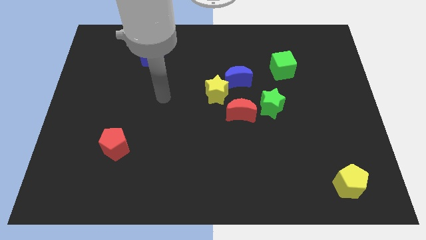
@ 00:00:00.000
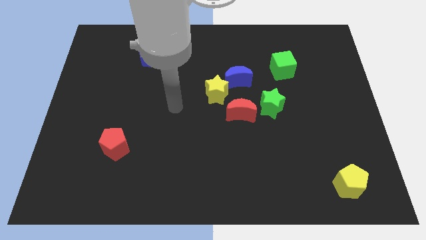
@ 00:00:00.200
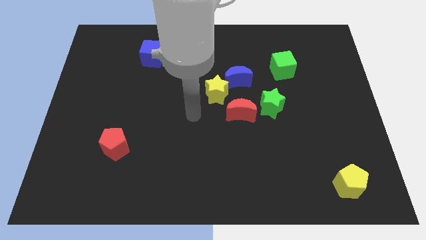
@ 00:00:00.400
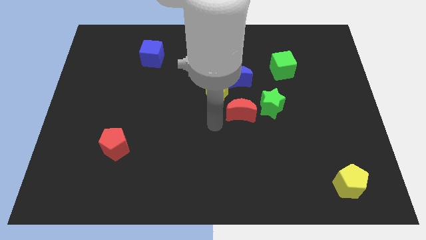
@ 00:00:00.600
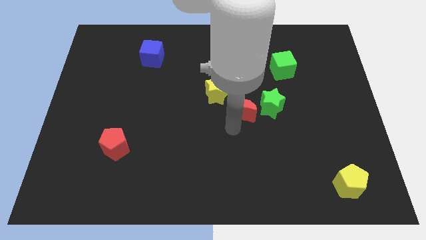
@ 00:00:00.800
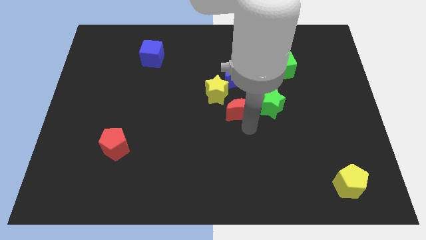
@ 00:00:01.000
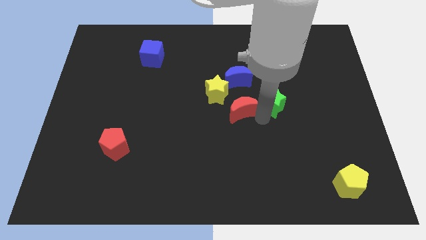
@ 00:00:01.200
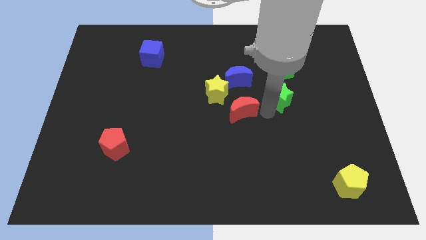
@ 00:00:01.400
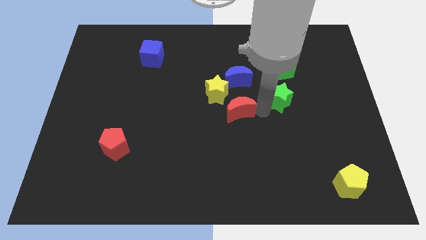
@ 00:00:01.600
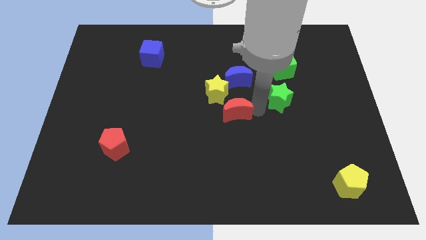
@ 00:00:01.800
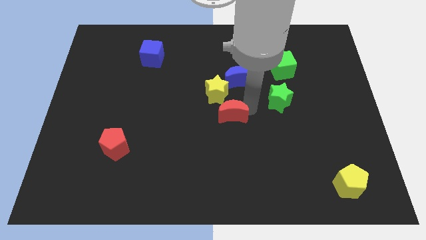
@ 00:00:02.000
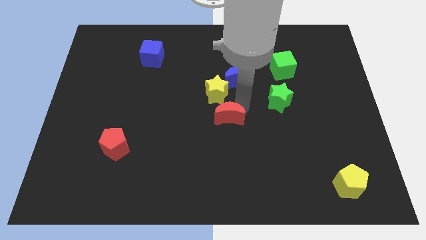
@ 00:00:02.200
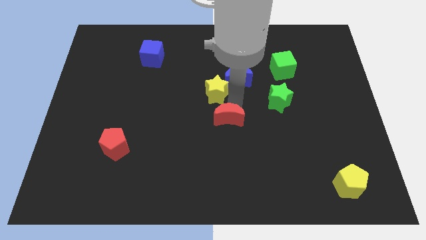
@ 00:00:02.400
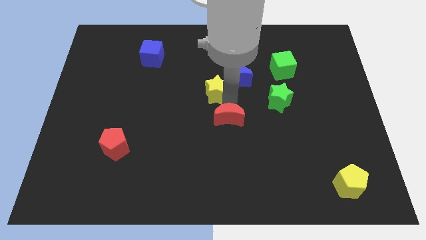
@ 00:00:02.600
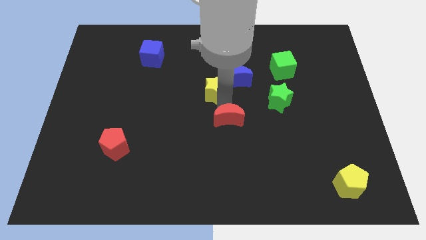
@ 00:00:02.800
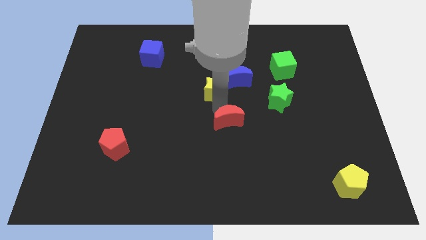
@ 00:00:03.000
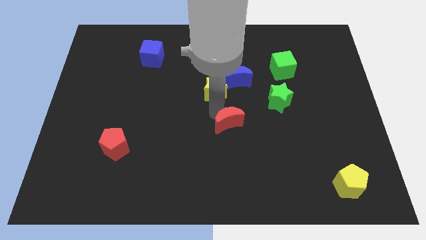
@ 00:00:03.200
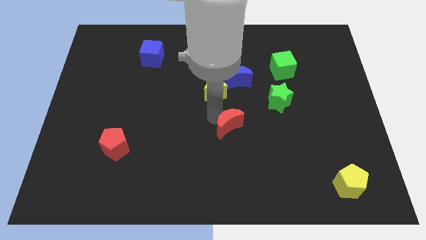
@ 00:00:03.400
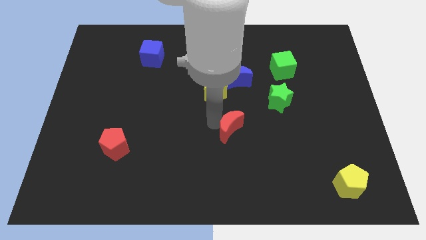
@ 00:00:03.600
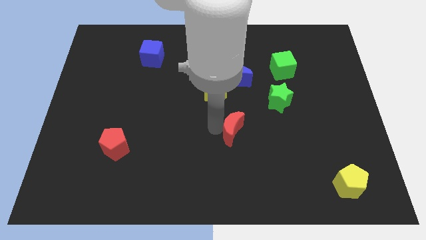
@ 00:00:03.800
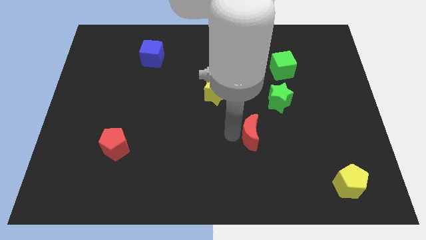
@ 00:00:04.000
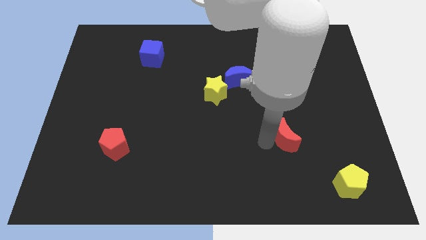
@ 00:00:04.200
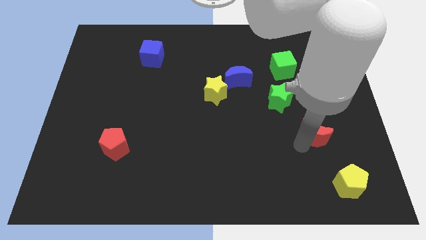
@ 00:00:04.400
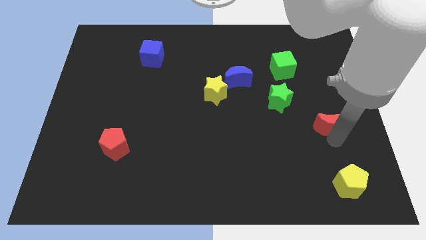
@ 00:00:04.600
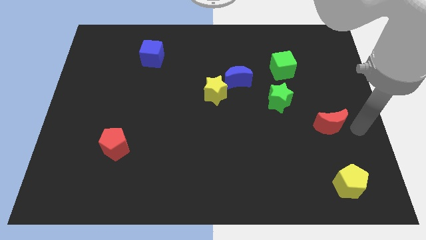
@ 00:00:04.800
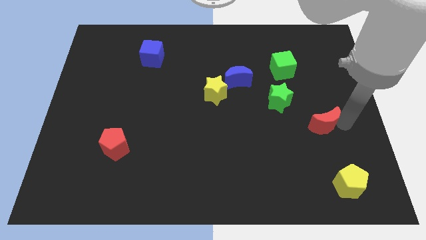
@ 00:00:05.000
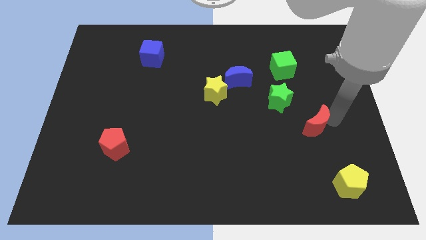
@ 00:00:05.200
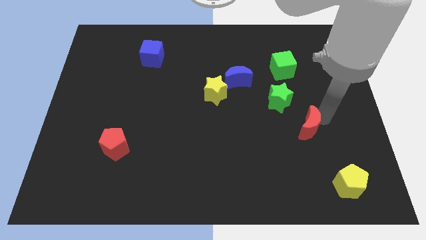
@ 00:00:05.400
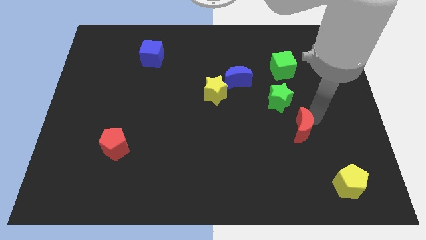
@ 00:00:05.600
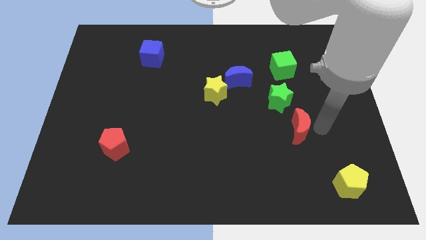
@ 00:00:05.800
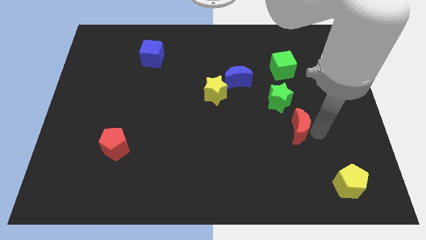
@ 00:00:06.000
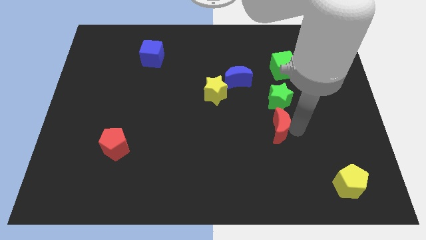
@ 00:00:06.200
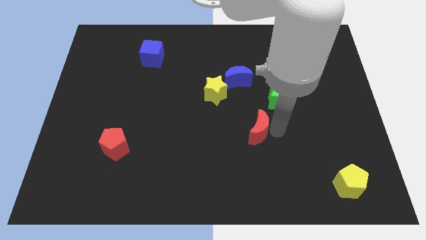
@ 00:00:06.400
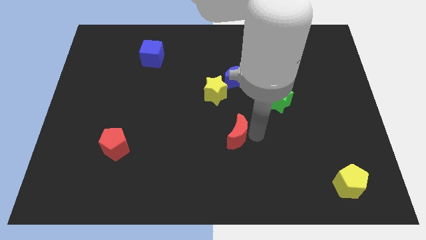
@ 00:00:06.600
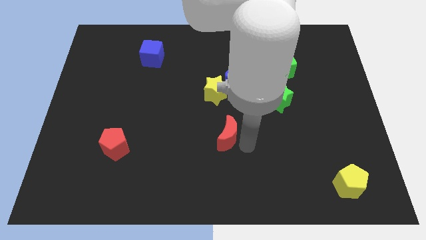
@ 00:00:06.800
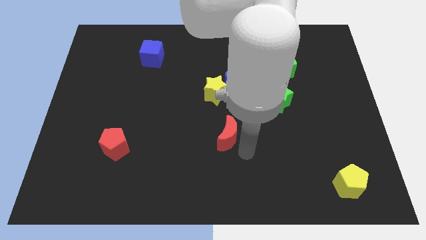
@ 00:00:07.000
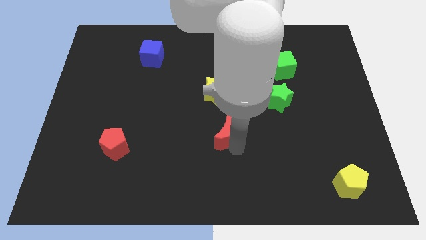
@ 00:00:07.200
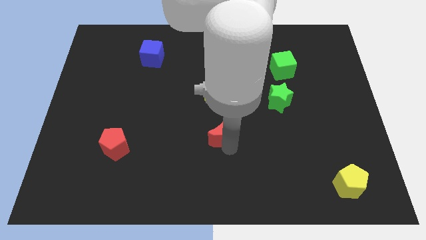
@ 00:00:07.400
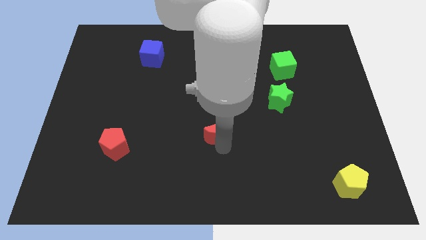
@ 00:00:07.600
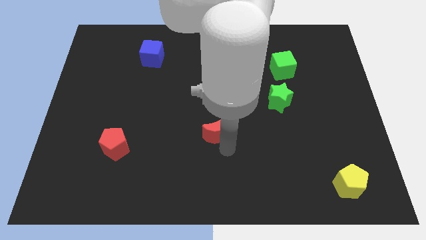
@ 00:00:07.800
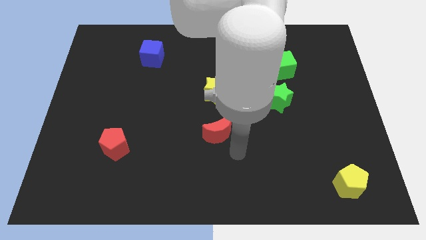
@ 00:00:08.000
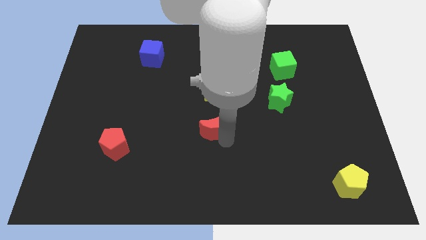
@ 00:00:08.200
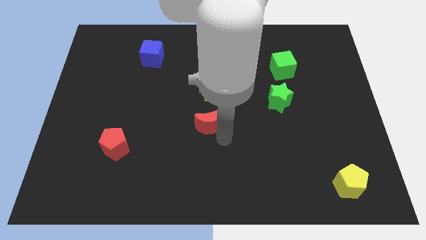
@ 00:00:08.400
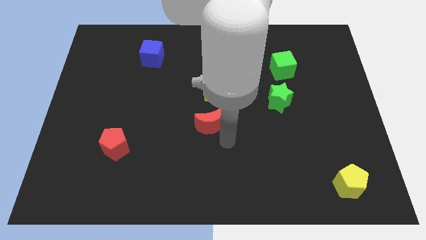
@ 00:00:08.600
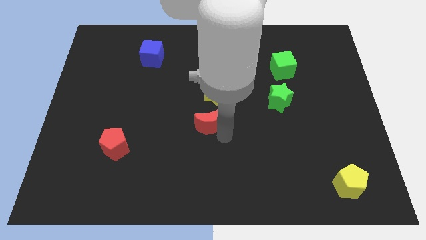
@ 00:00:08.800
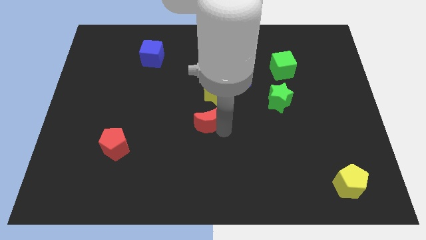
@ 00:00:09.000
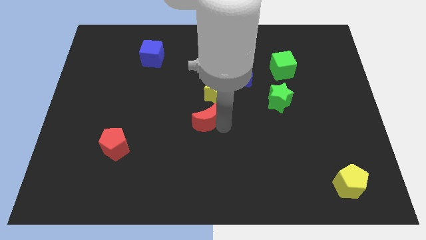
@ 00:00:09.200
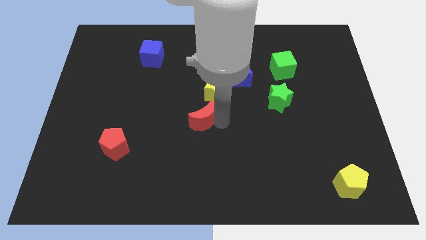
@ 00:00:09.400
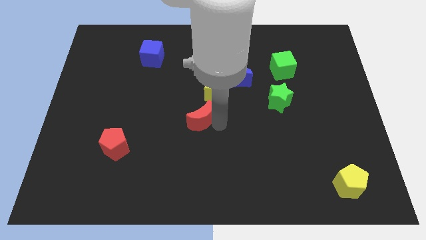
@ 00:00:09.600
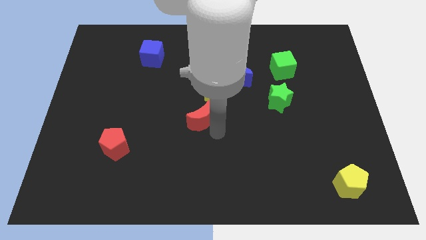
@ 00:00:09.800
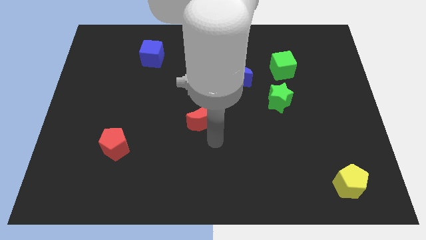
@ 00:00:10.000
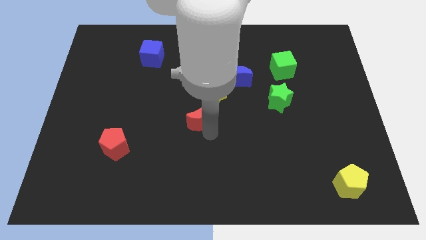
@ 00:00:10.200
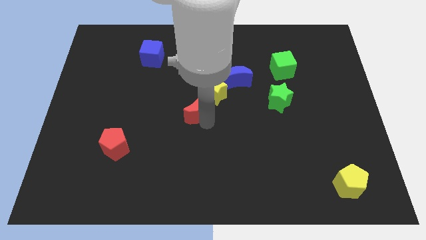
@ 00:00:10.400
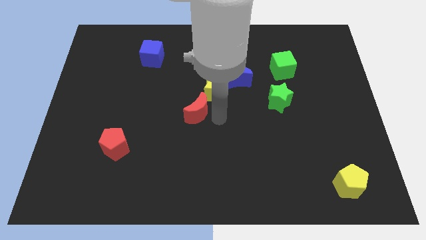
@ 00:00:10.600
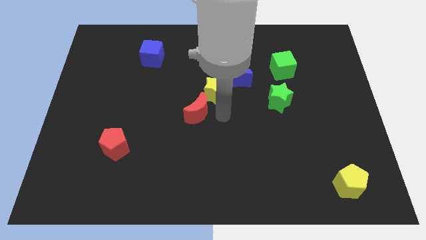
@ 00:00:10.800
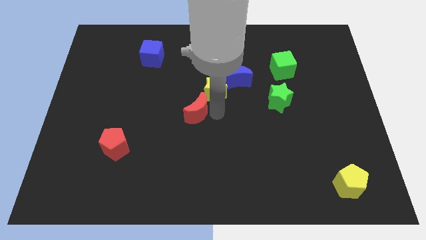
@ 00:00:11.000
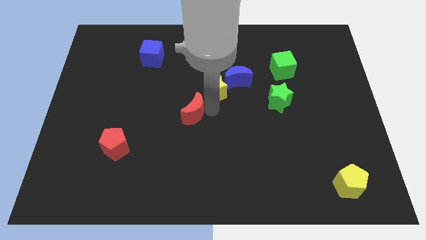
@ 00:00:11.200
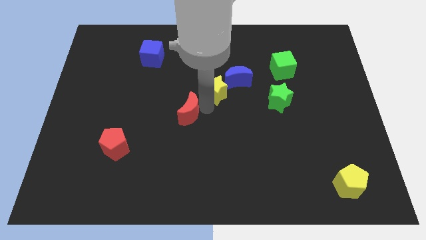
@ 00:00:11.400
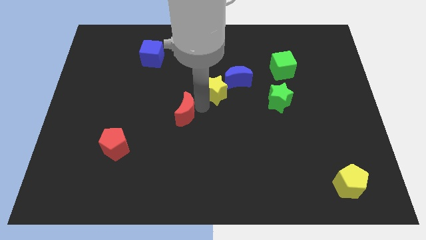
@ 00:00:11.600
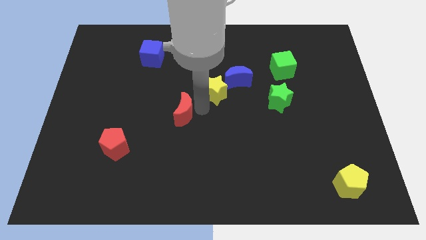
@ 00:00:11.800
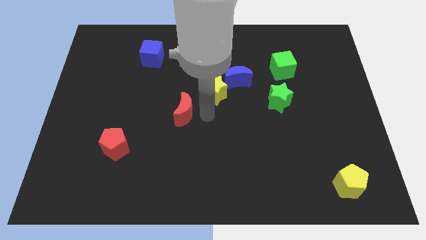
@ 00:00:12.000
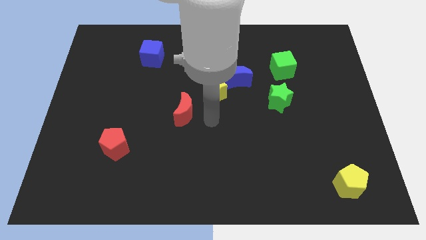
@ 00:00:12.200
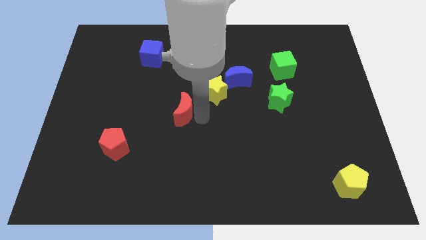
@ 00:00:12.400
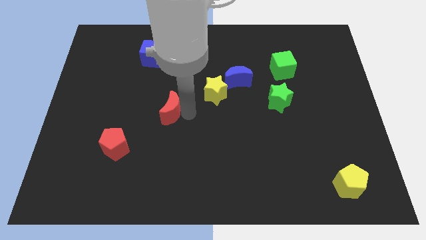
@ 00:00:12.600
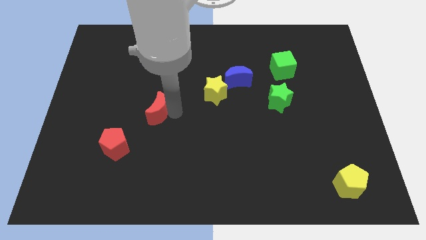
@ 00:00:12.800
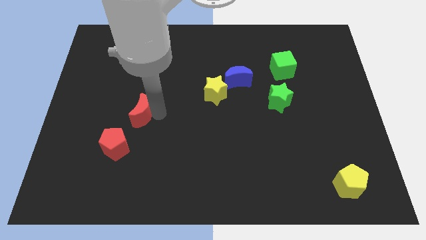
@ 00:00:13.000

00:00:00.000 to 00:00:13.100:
move the red moon to the top of the red pentagon

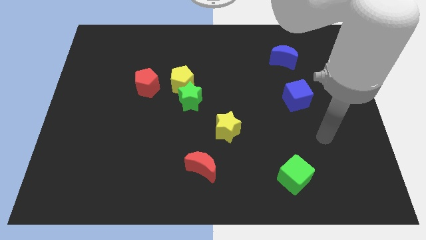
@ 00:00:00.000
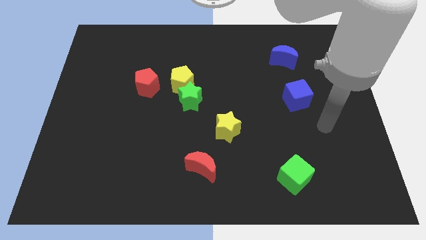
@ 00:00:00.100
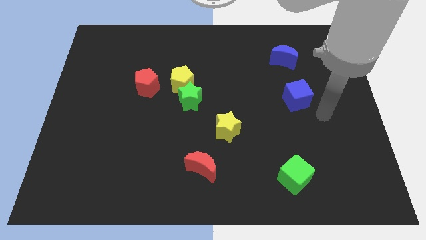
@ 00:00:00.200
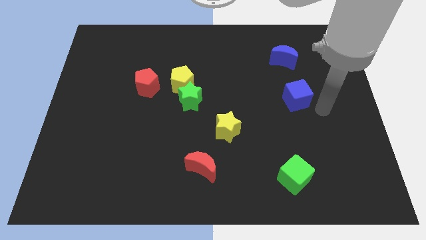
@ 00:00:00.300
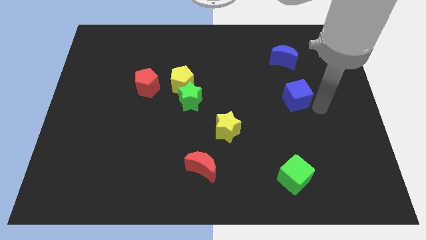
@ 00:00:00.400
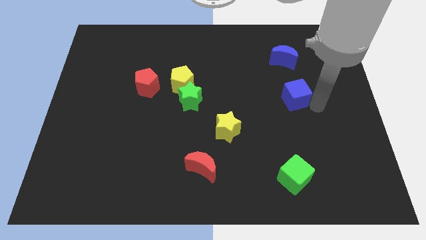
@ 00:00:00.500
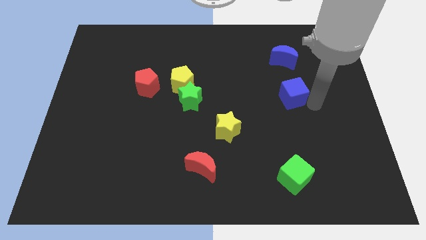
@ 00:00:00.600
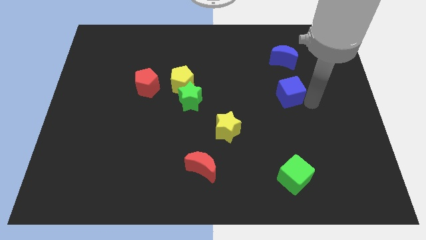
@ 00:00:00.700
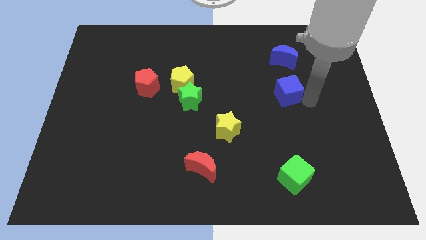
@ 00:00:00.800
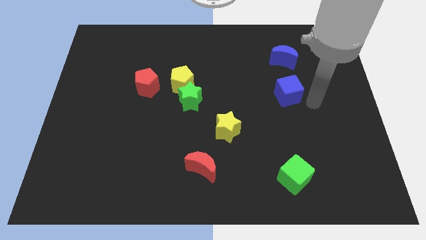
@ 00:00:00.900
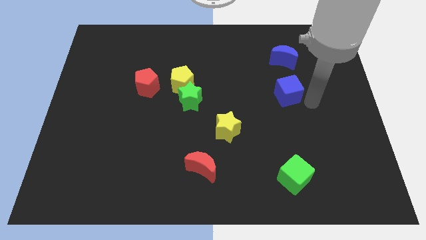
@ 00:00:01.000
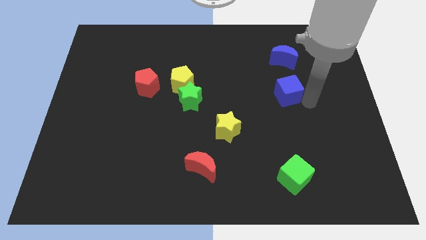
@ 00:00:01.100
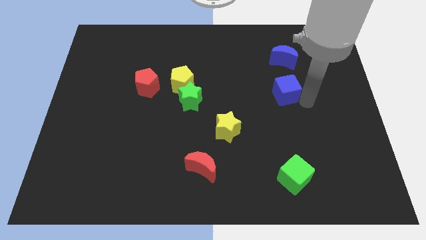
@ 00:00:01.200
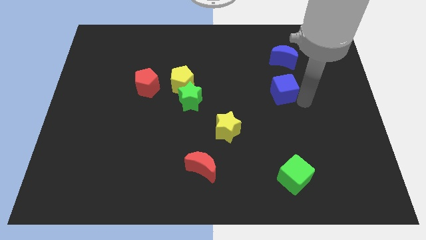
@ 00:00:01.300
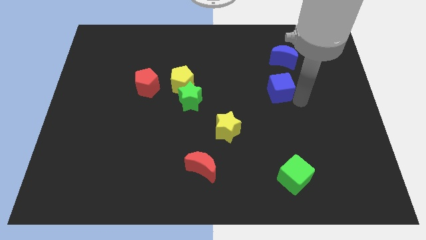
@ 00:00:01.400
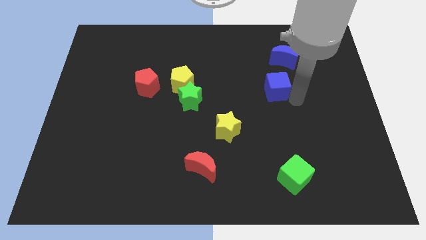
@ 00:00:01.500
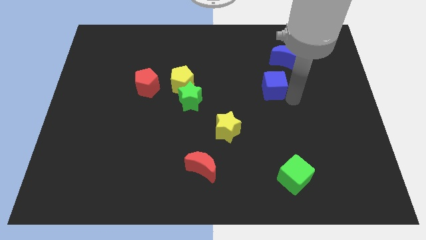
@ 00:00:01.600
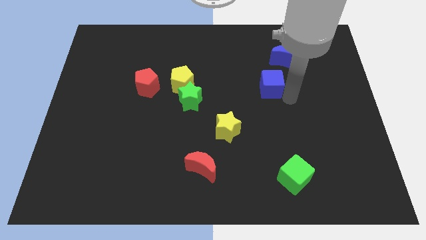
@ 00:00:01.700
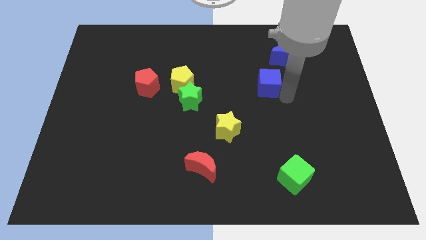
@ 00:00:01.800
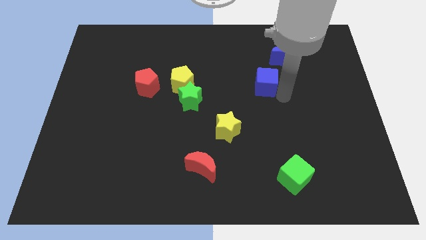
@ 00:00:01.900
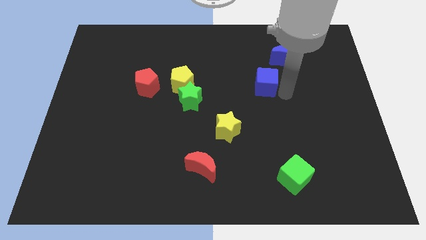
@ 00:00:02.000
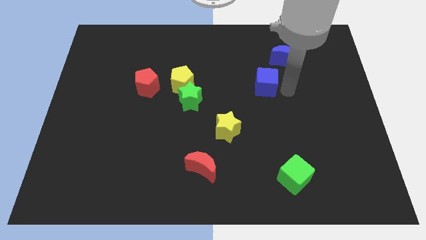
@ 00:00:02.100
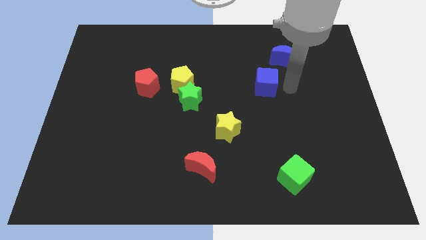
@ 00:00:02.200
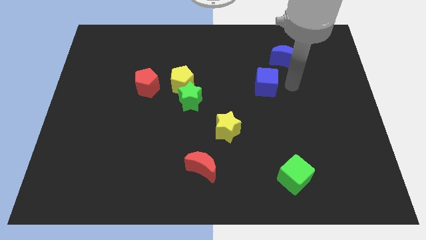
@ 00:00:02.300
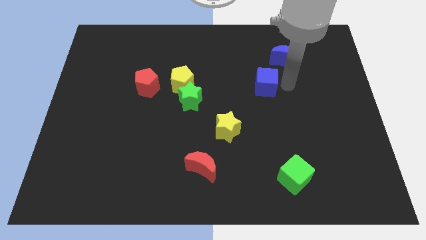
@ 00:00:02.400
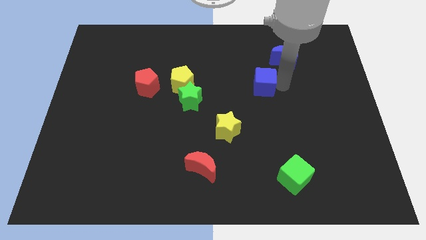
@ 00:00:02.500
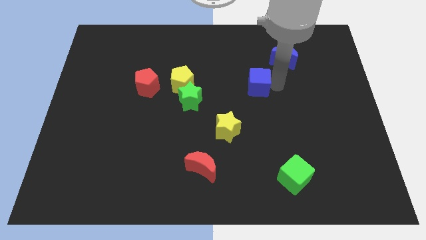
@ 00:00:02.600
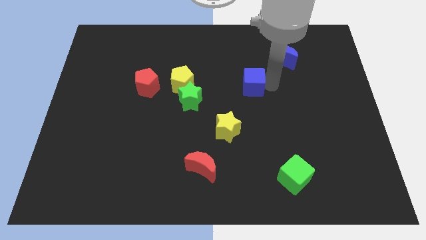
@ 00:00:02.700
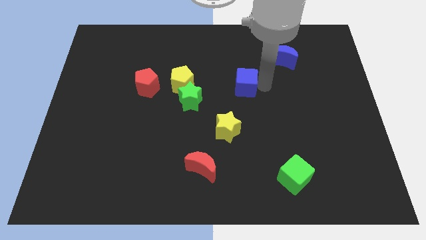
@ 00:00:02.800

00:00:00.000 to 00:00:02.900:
move the blue cube just right of the yellow pentagon
